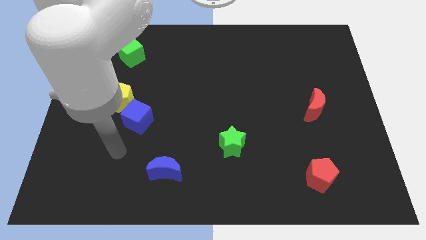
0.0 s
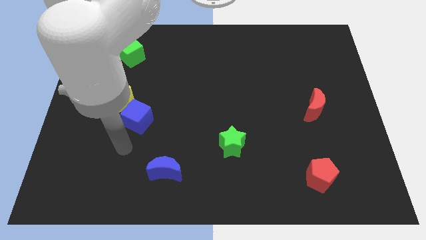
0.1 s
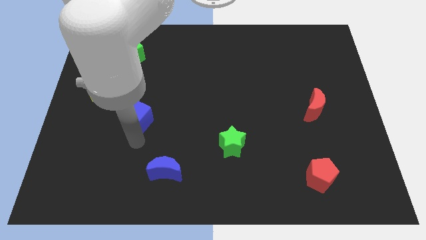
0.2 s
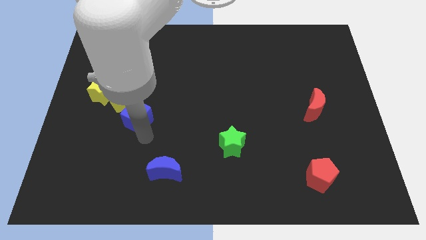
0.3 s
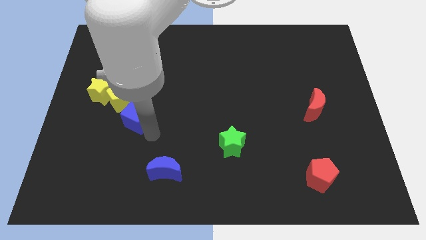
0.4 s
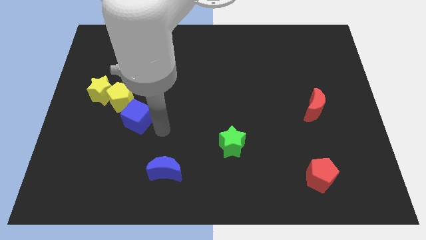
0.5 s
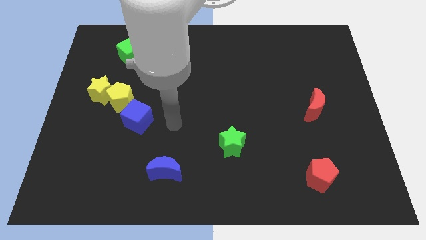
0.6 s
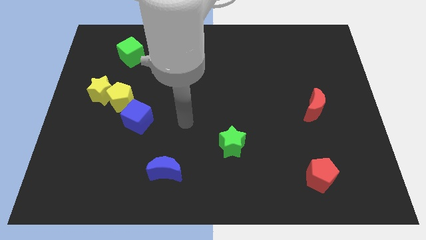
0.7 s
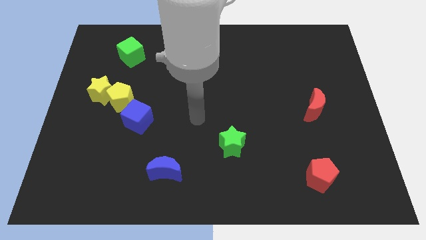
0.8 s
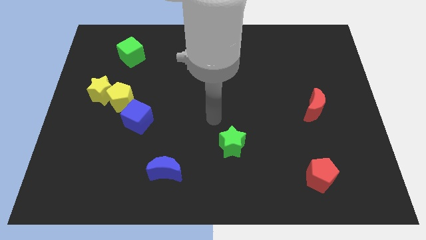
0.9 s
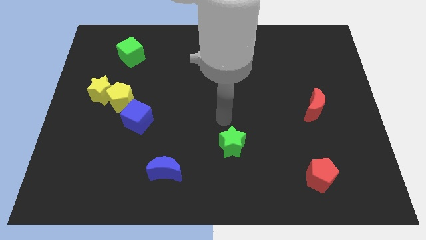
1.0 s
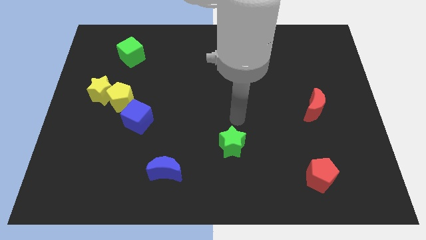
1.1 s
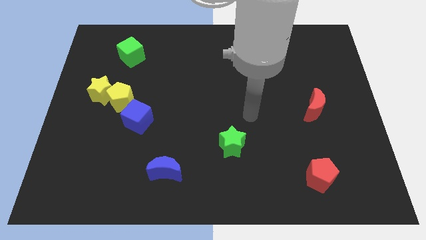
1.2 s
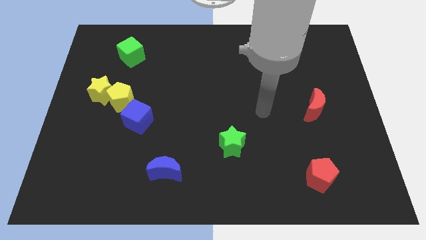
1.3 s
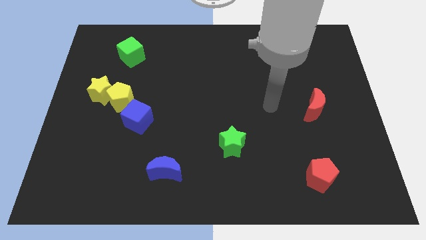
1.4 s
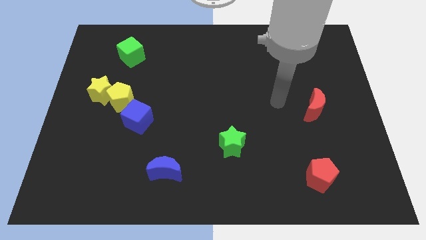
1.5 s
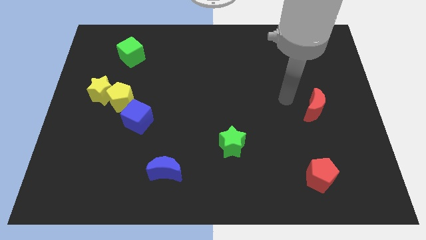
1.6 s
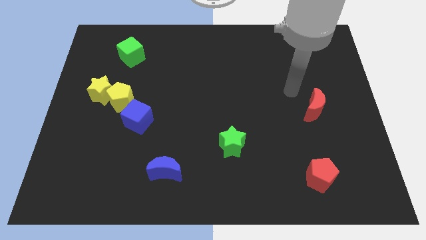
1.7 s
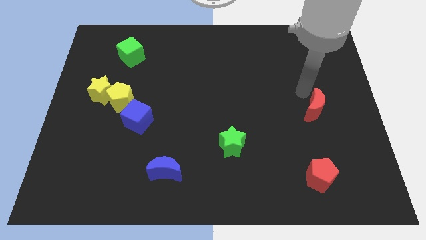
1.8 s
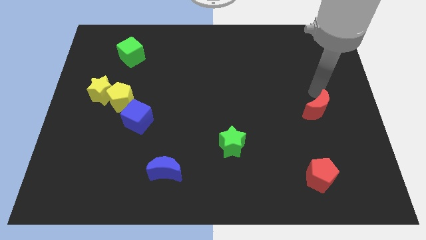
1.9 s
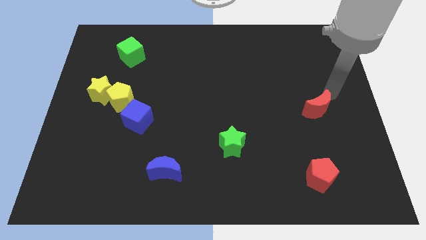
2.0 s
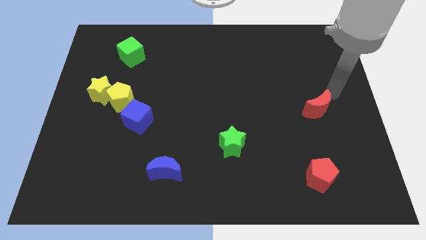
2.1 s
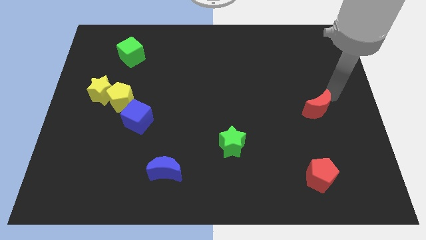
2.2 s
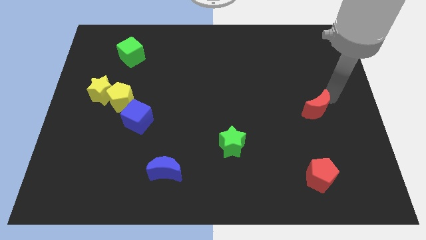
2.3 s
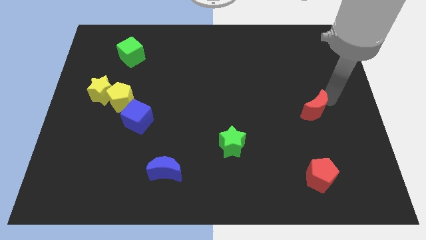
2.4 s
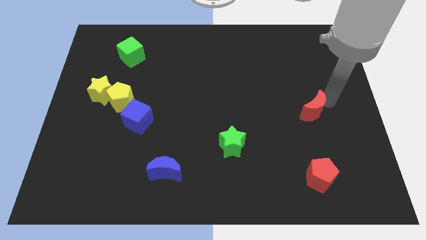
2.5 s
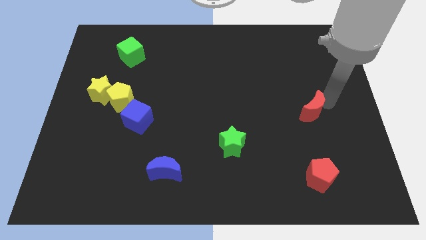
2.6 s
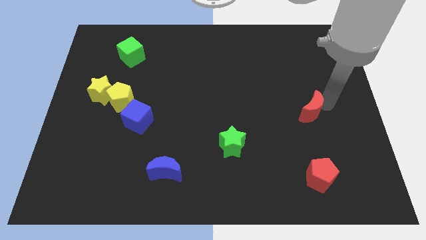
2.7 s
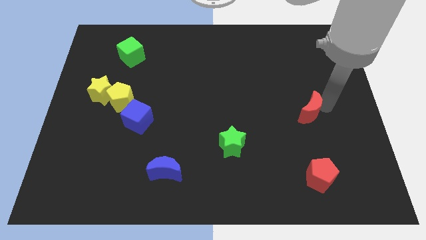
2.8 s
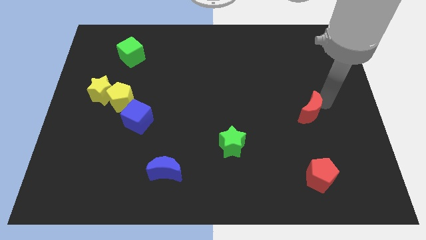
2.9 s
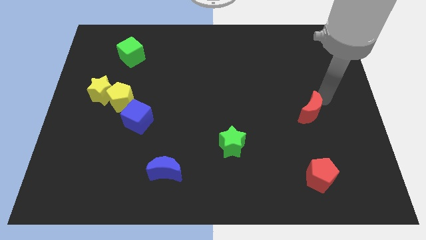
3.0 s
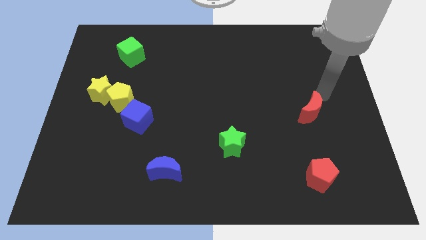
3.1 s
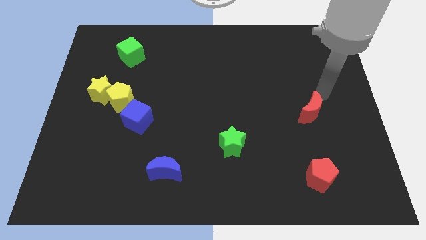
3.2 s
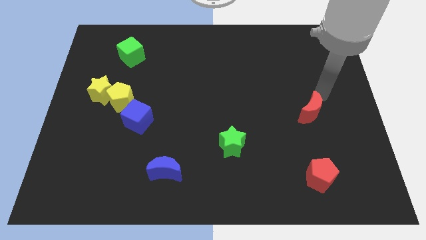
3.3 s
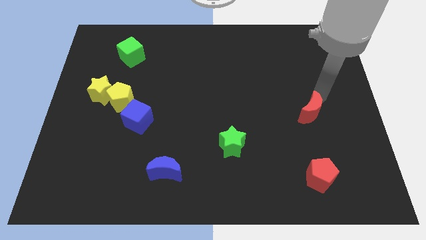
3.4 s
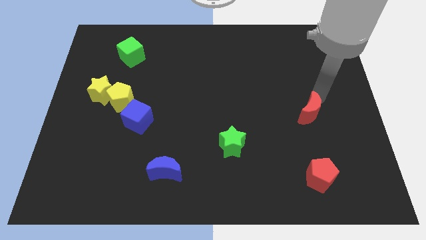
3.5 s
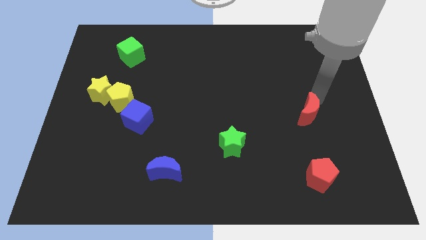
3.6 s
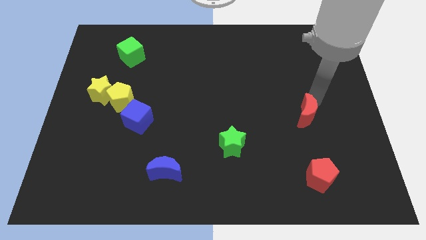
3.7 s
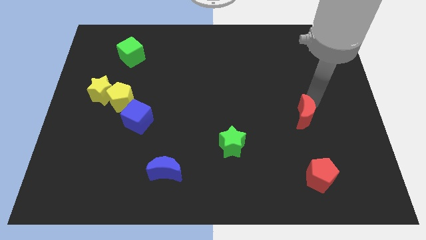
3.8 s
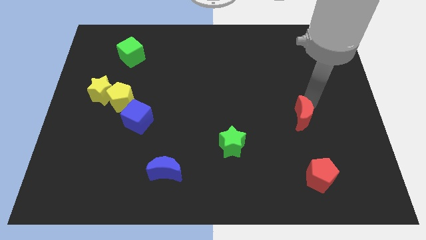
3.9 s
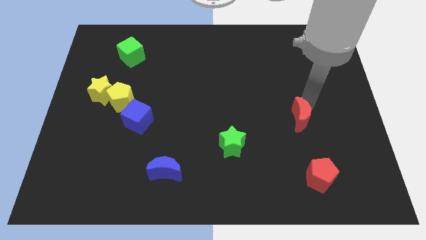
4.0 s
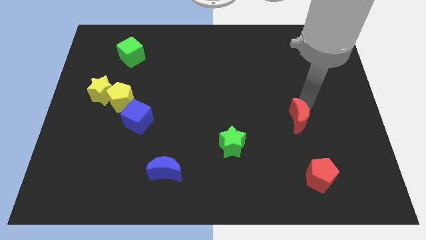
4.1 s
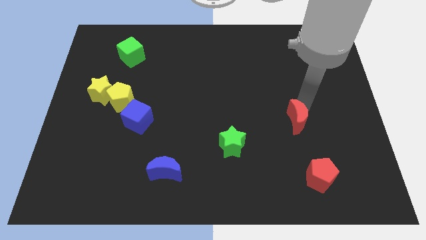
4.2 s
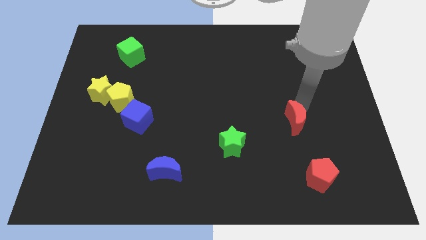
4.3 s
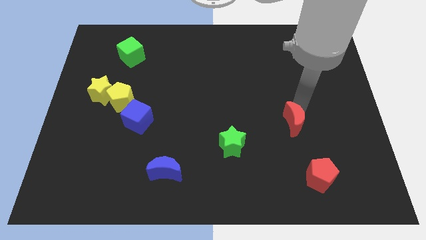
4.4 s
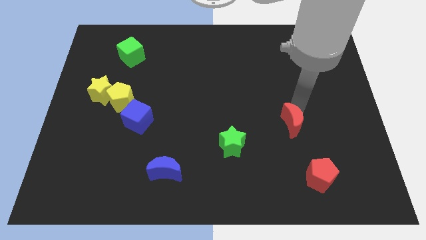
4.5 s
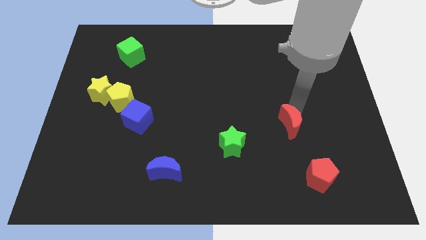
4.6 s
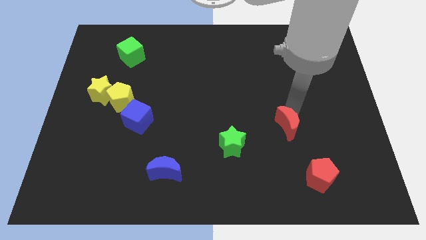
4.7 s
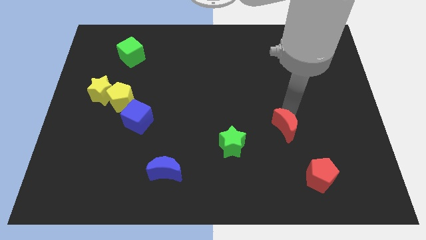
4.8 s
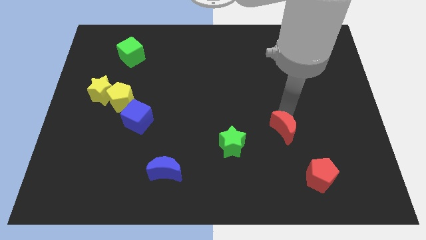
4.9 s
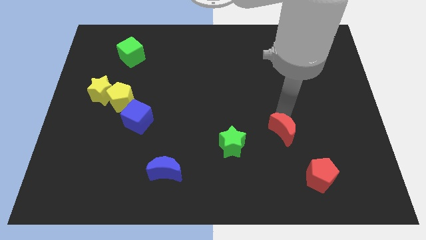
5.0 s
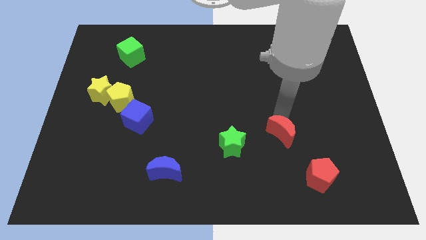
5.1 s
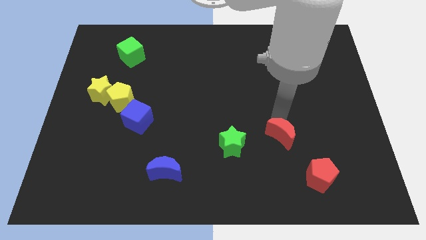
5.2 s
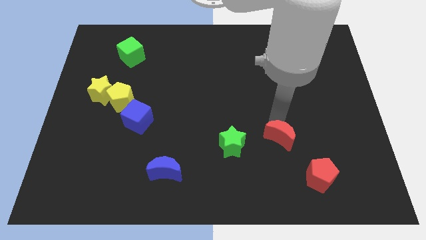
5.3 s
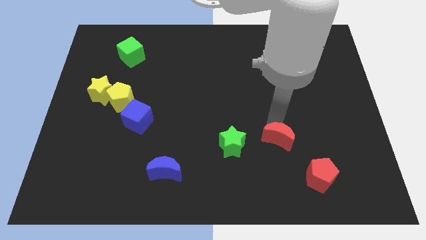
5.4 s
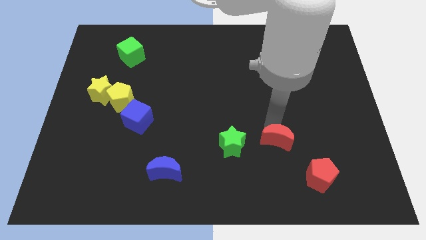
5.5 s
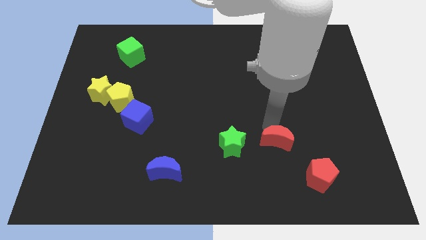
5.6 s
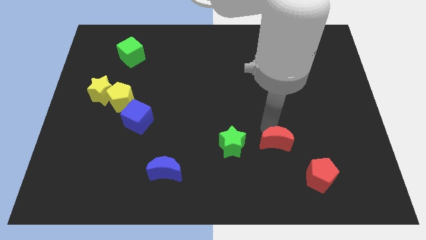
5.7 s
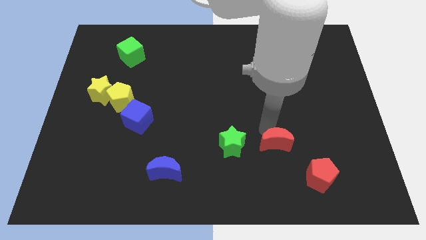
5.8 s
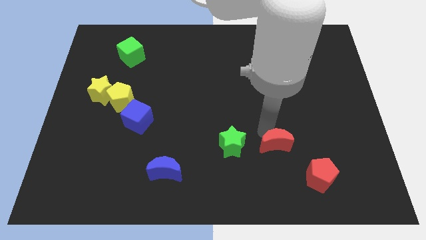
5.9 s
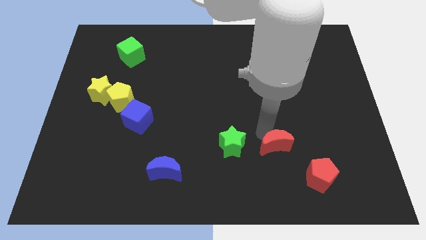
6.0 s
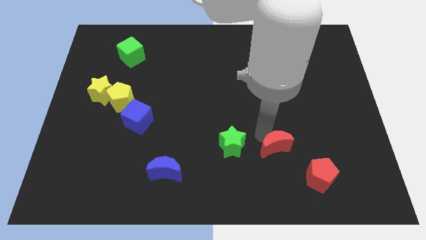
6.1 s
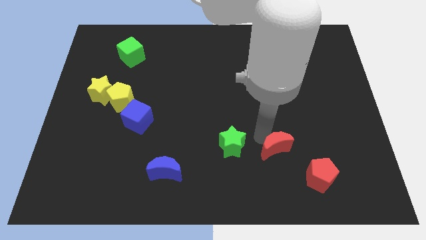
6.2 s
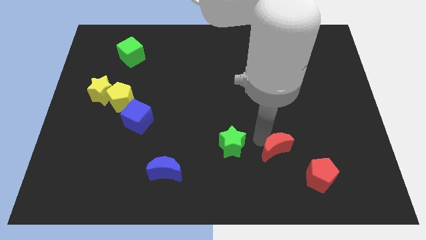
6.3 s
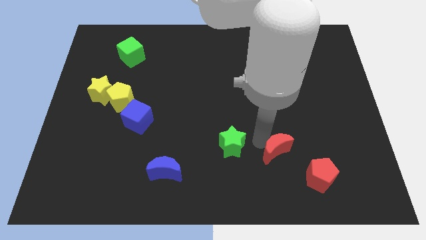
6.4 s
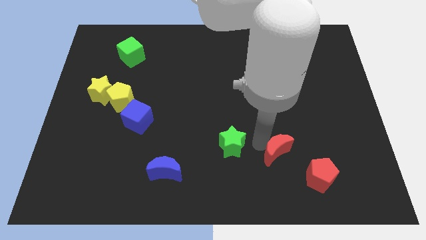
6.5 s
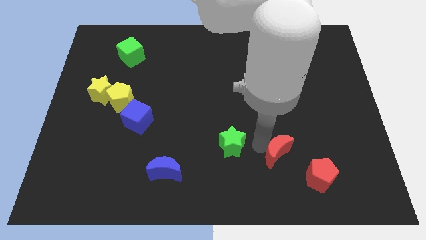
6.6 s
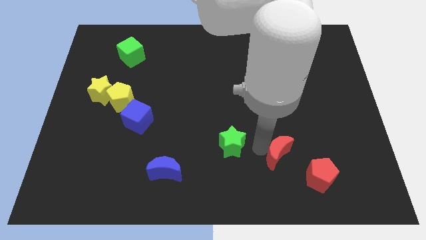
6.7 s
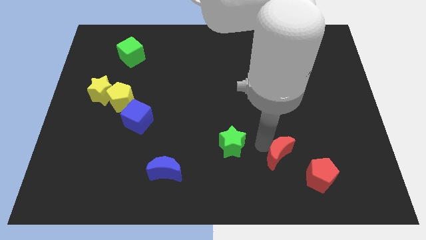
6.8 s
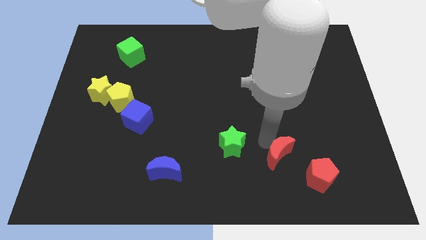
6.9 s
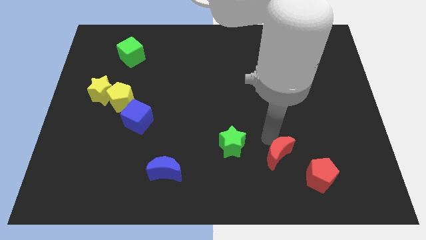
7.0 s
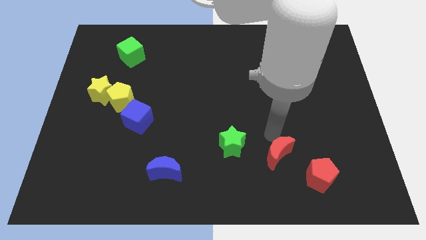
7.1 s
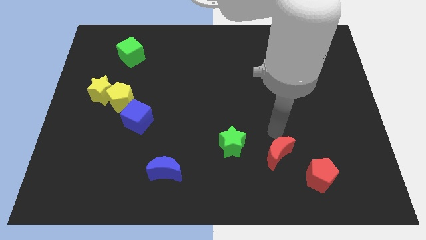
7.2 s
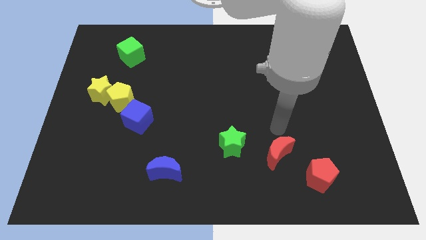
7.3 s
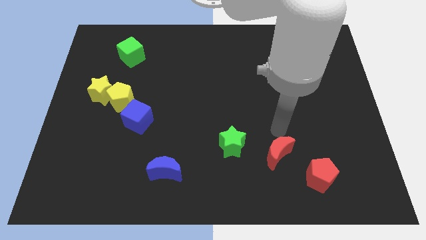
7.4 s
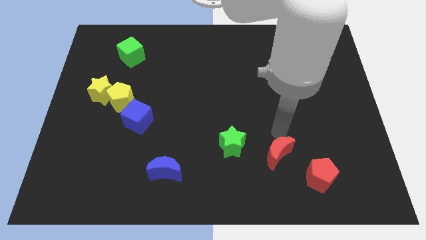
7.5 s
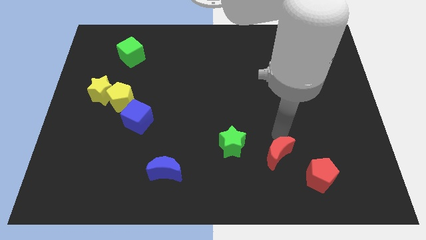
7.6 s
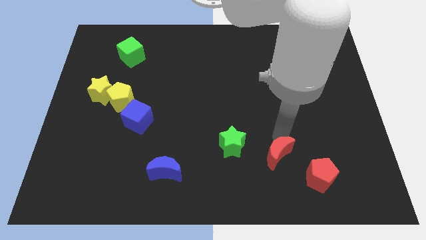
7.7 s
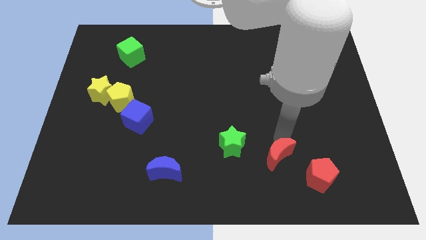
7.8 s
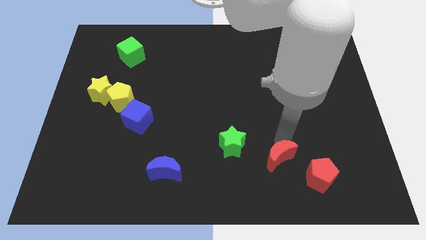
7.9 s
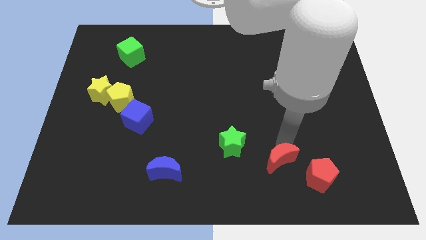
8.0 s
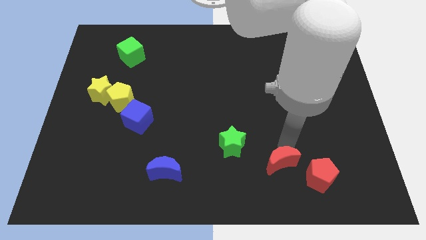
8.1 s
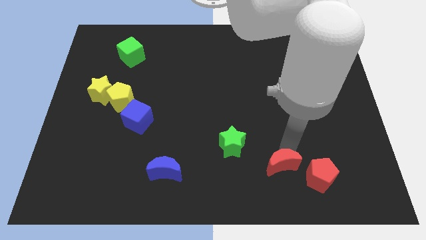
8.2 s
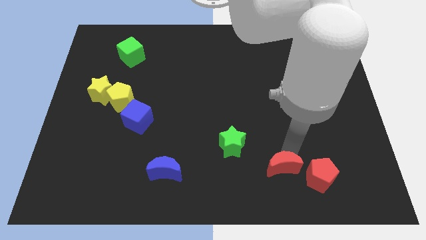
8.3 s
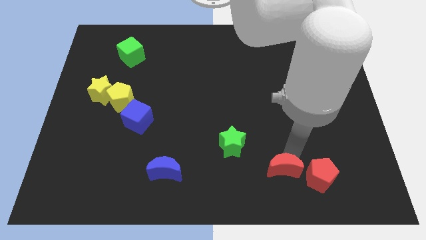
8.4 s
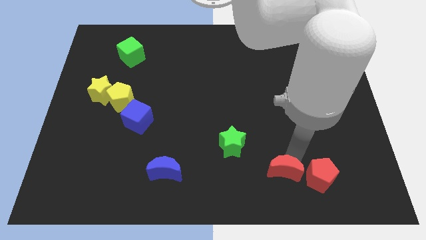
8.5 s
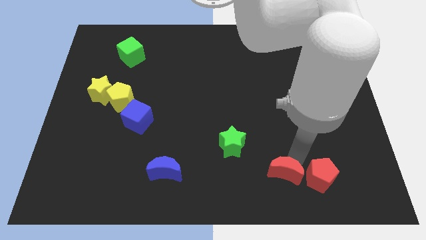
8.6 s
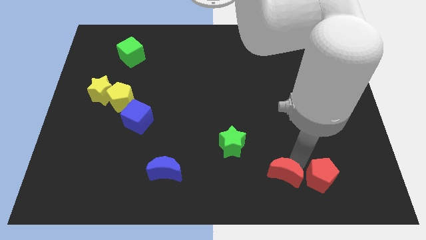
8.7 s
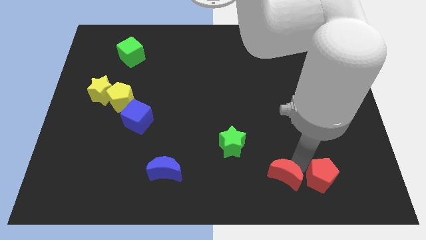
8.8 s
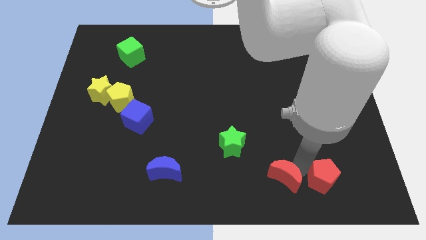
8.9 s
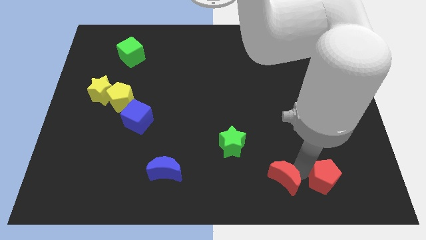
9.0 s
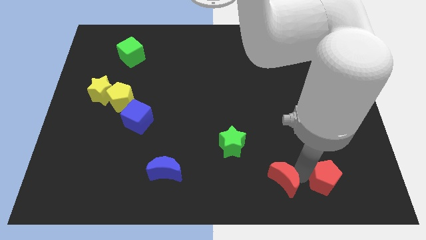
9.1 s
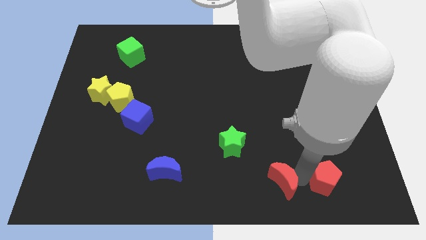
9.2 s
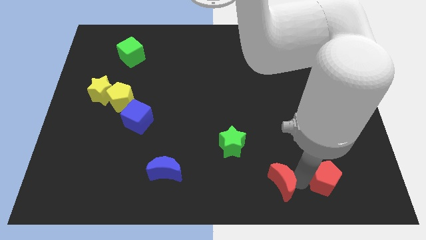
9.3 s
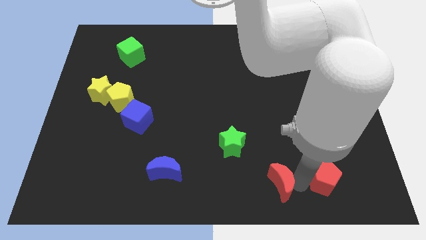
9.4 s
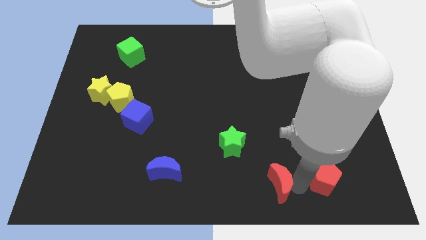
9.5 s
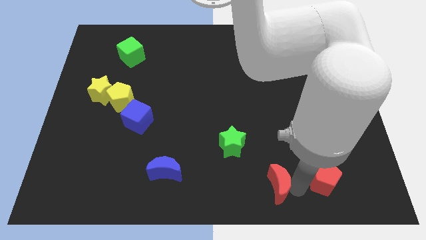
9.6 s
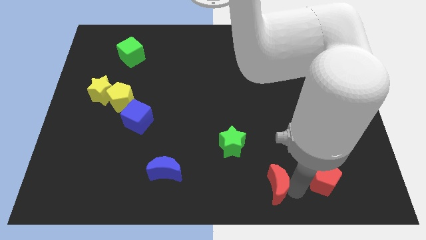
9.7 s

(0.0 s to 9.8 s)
slide the red moon to the bottom
